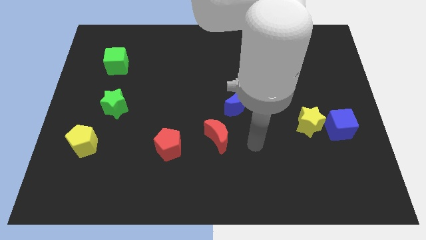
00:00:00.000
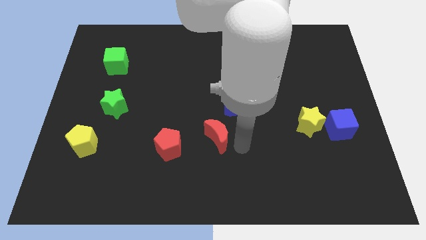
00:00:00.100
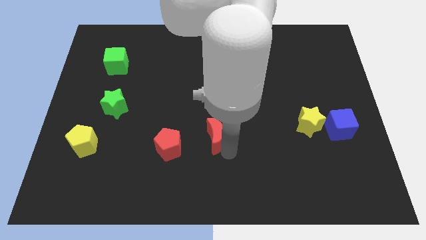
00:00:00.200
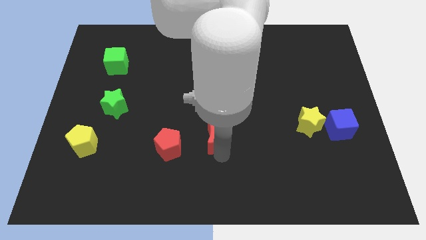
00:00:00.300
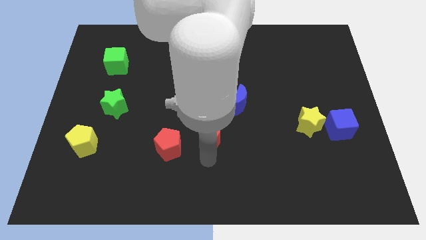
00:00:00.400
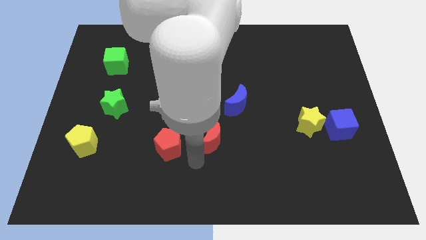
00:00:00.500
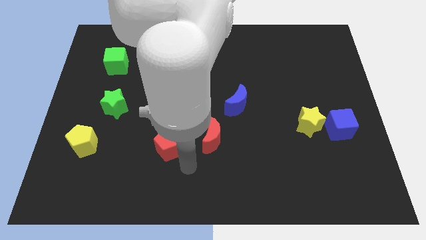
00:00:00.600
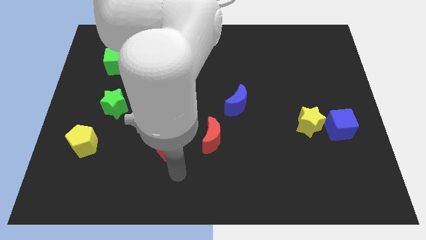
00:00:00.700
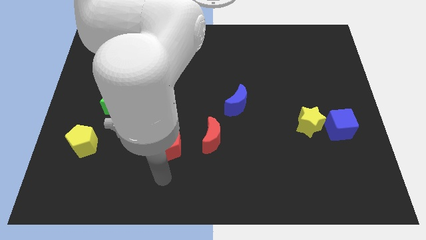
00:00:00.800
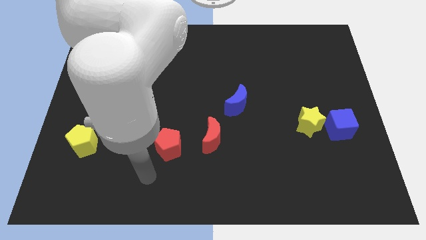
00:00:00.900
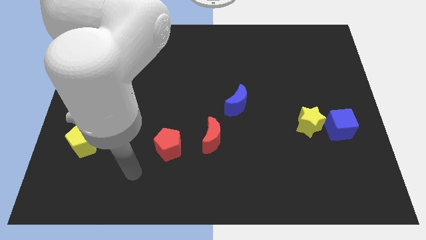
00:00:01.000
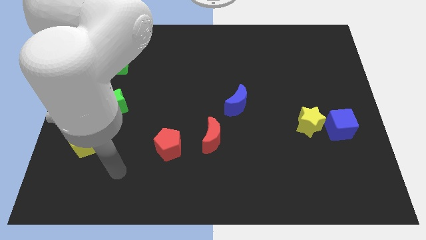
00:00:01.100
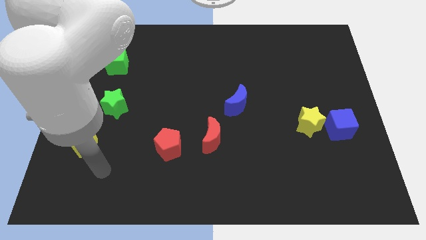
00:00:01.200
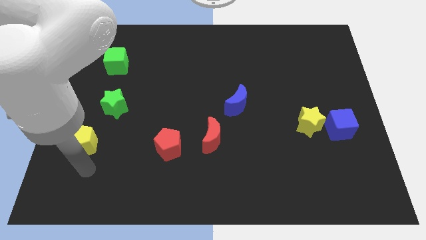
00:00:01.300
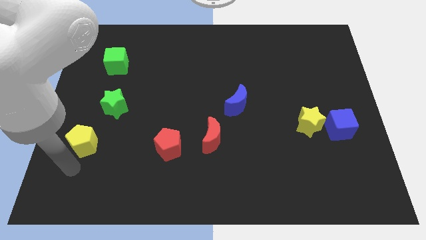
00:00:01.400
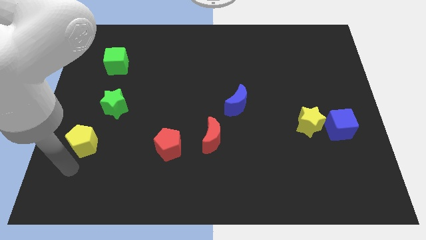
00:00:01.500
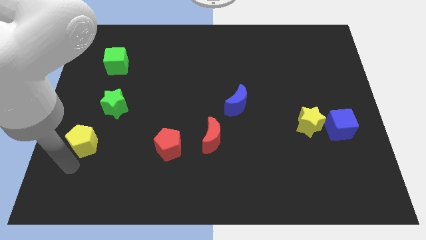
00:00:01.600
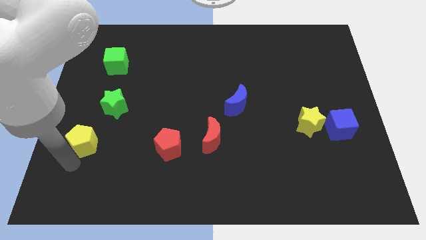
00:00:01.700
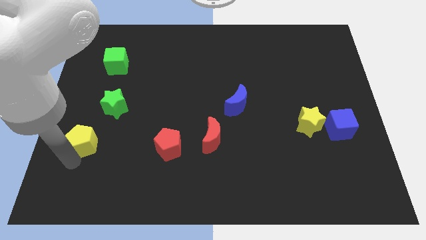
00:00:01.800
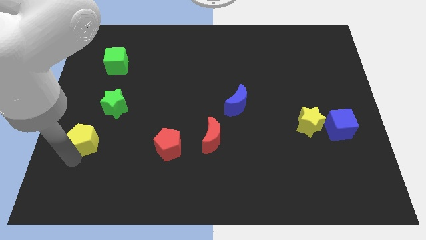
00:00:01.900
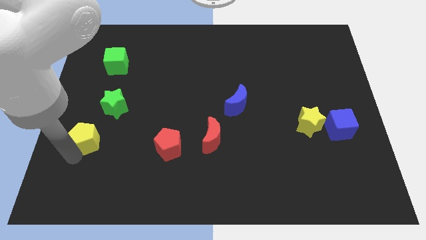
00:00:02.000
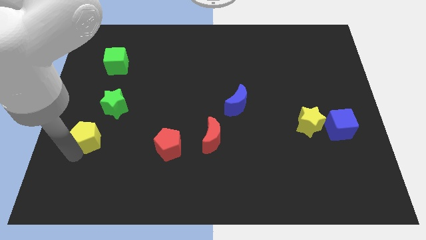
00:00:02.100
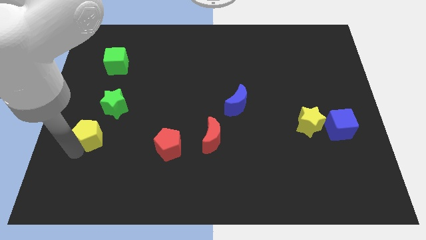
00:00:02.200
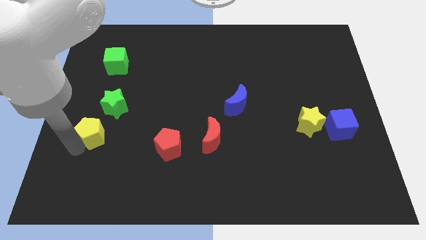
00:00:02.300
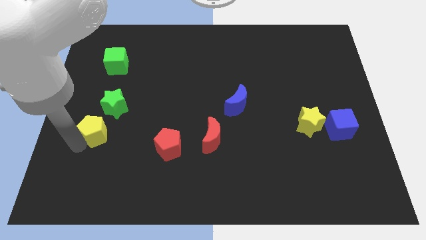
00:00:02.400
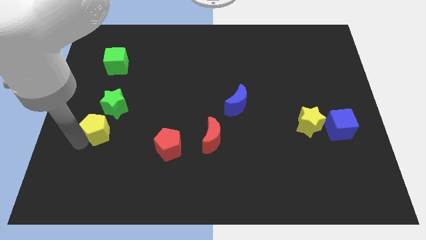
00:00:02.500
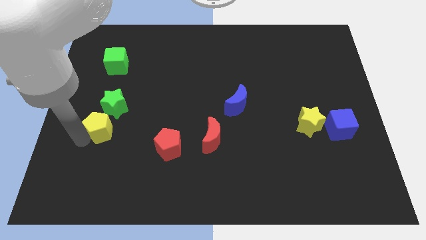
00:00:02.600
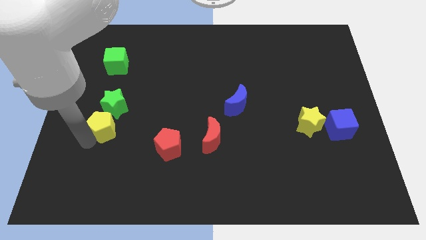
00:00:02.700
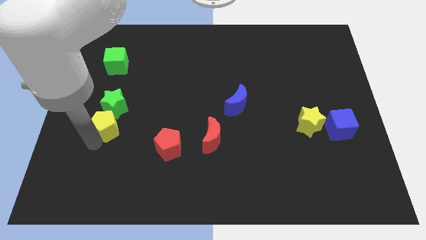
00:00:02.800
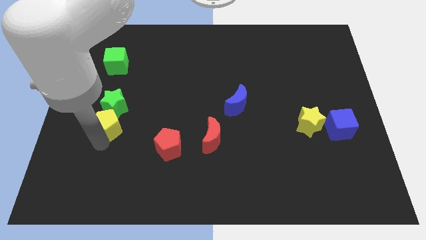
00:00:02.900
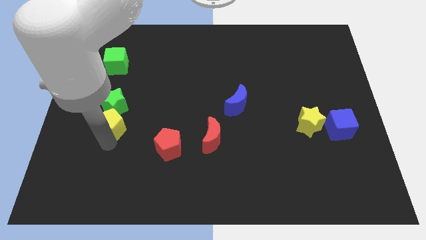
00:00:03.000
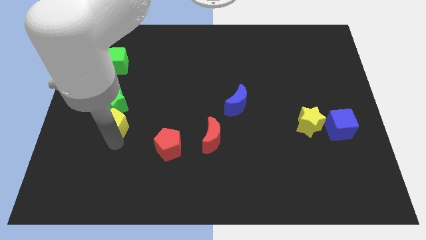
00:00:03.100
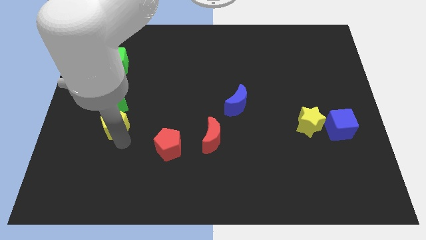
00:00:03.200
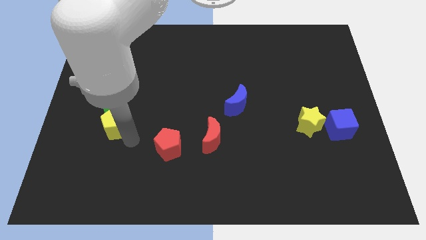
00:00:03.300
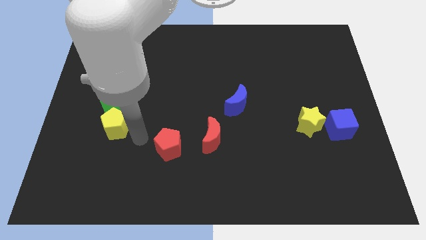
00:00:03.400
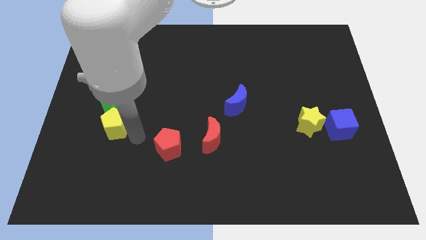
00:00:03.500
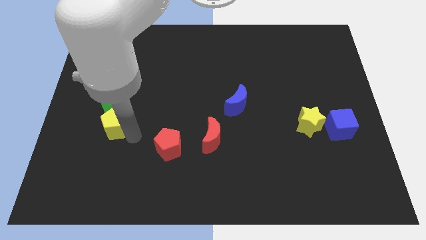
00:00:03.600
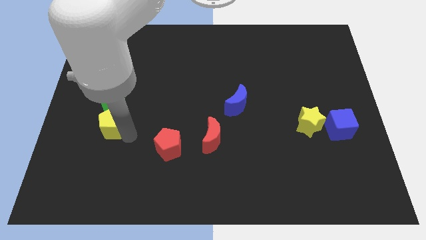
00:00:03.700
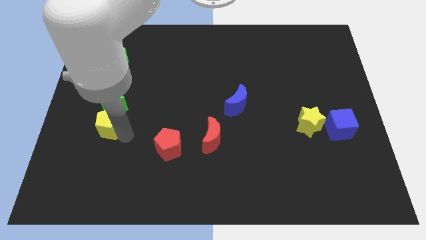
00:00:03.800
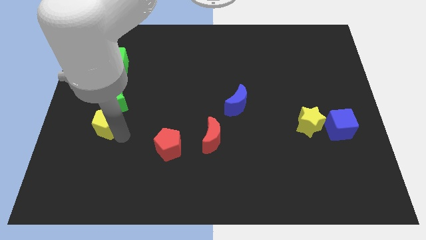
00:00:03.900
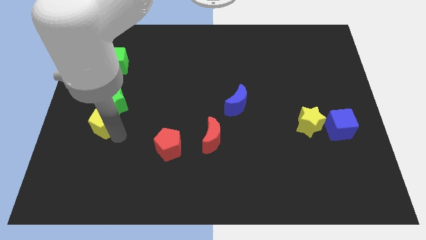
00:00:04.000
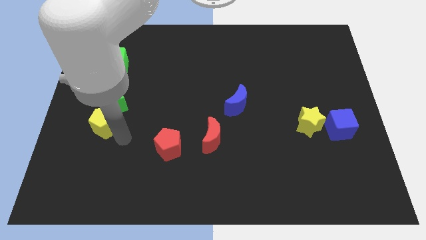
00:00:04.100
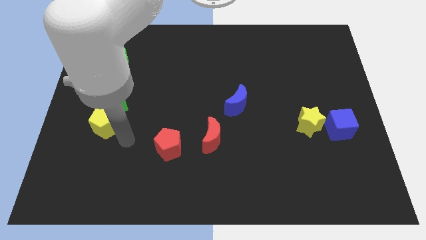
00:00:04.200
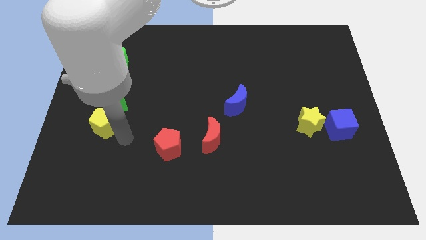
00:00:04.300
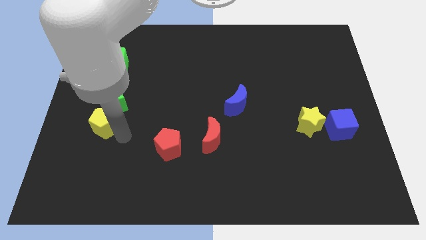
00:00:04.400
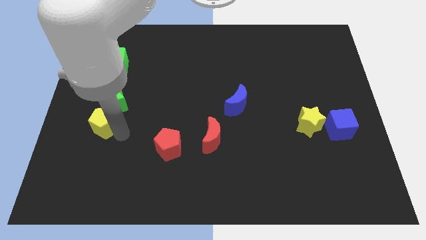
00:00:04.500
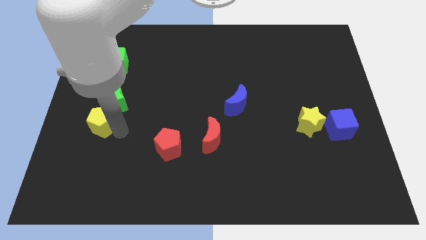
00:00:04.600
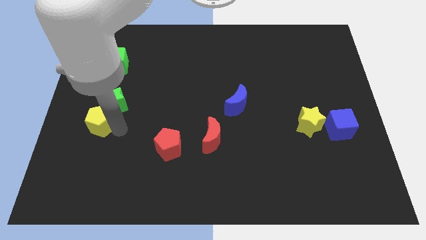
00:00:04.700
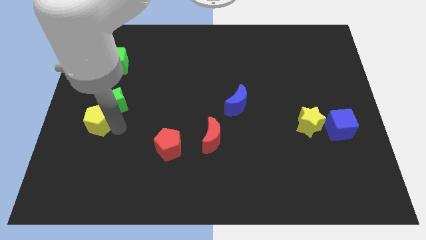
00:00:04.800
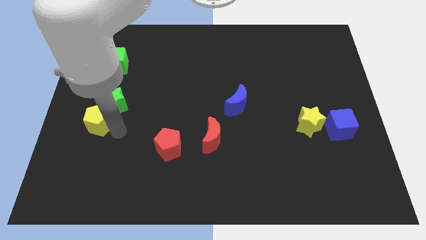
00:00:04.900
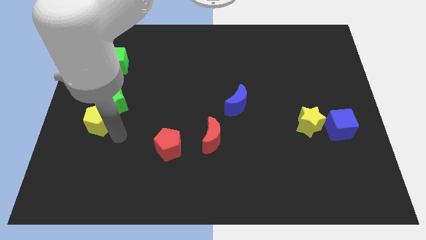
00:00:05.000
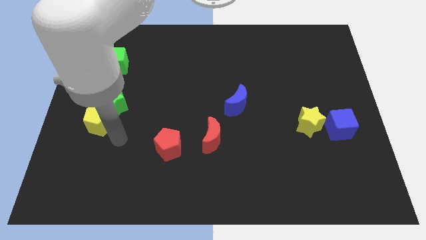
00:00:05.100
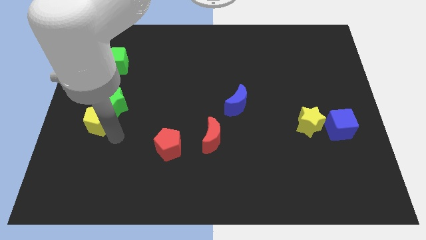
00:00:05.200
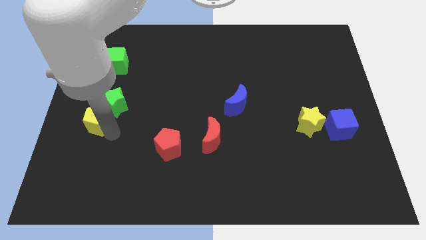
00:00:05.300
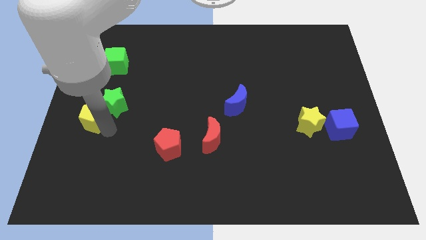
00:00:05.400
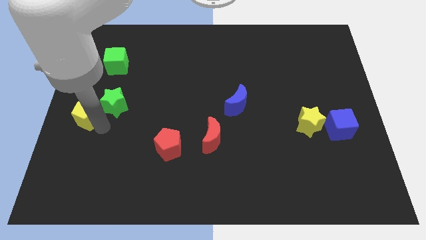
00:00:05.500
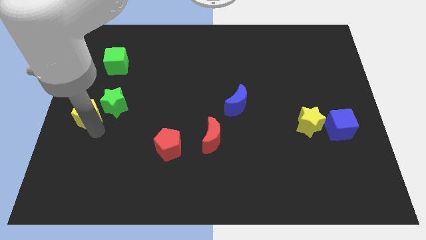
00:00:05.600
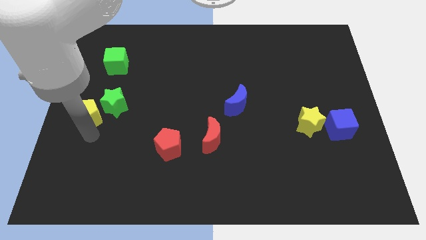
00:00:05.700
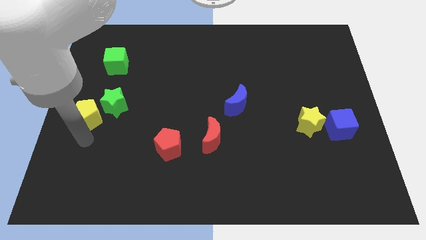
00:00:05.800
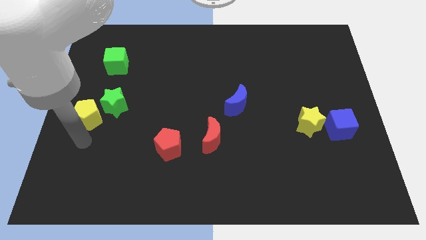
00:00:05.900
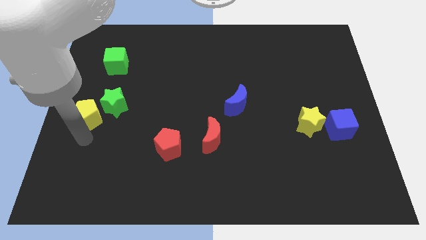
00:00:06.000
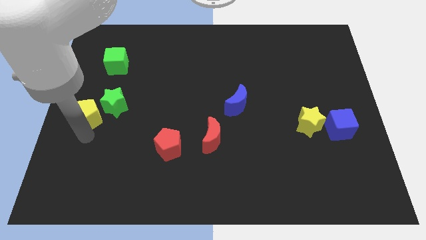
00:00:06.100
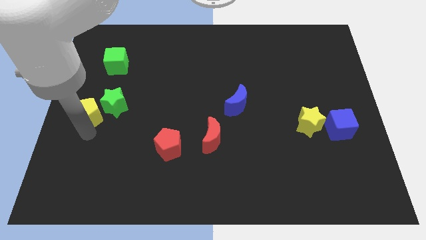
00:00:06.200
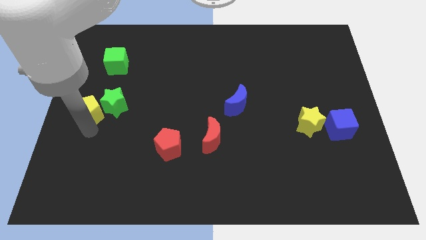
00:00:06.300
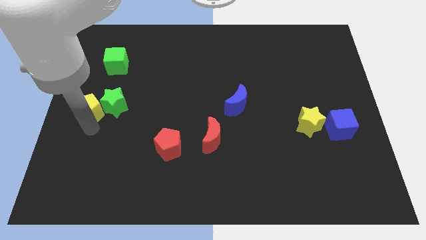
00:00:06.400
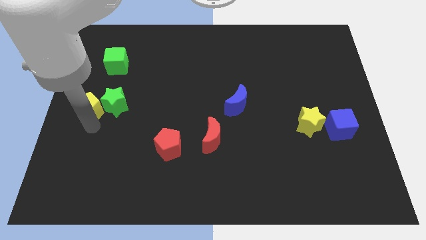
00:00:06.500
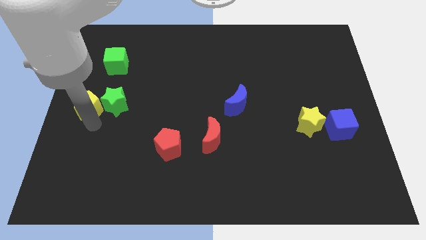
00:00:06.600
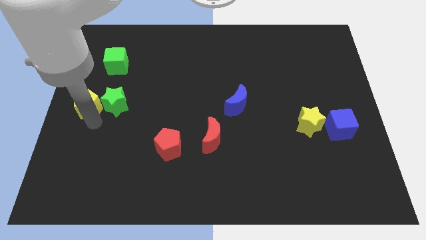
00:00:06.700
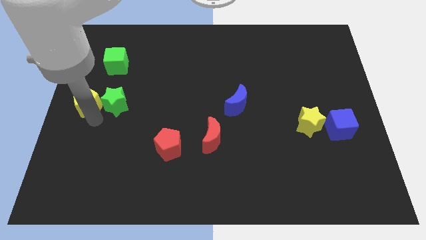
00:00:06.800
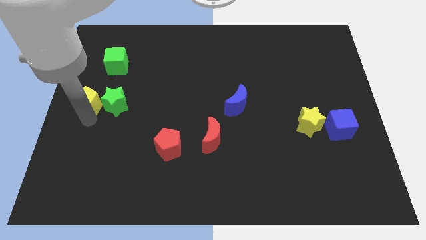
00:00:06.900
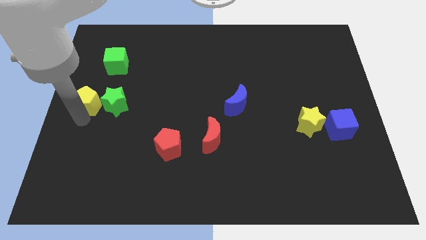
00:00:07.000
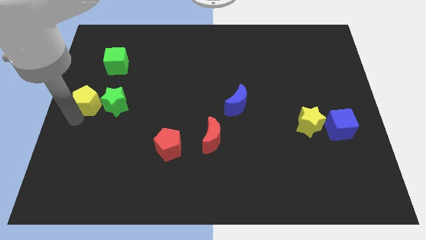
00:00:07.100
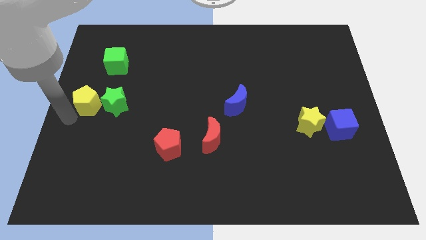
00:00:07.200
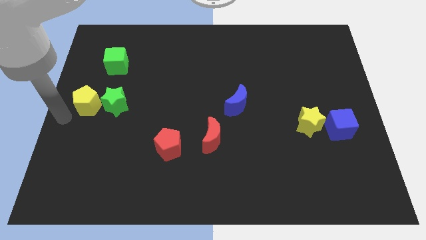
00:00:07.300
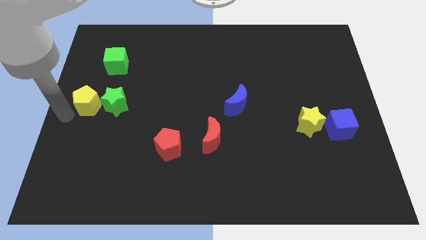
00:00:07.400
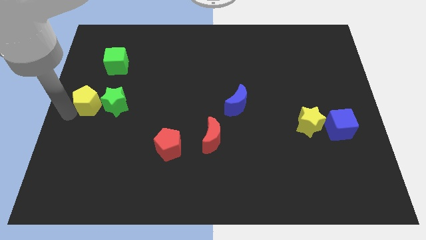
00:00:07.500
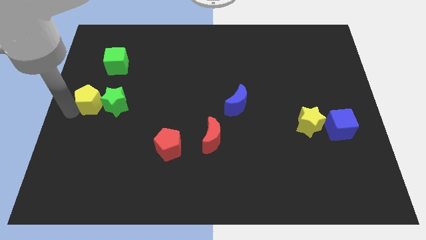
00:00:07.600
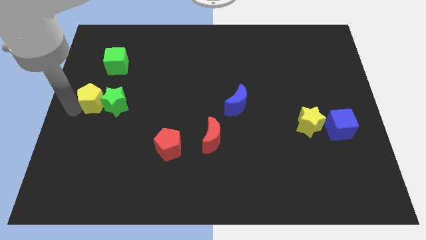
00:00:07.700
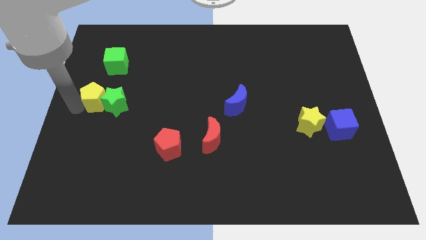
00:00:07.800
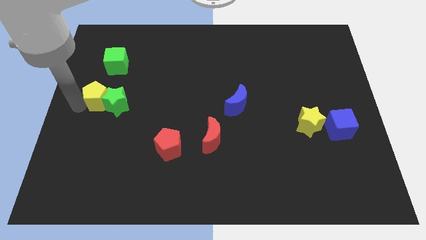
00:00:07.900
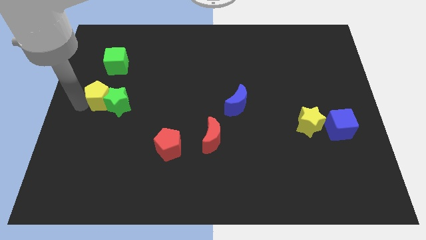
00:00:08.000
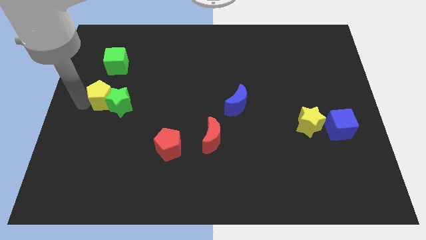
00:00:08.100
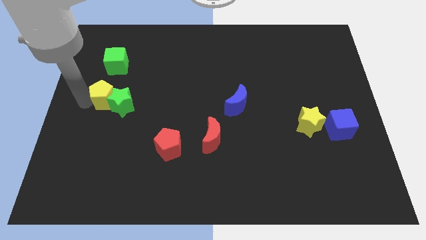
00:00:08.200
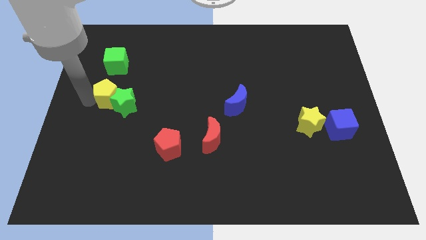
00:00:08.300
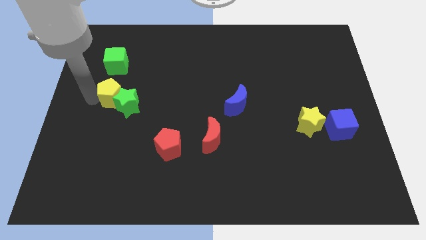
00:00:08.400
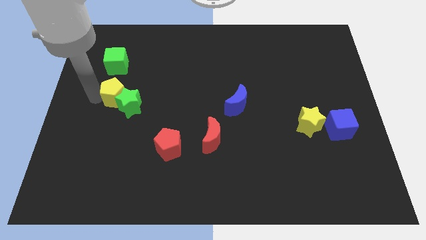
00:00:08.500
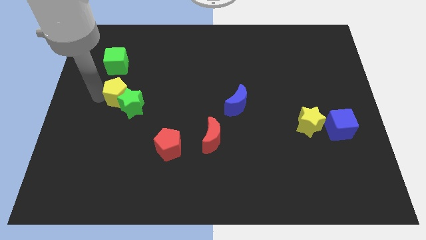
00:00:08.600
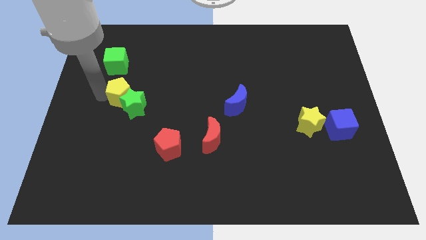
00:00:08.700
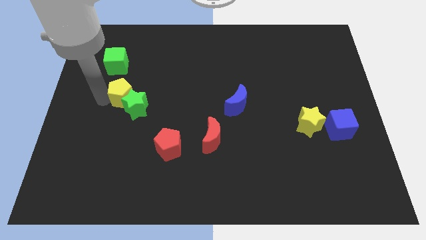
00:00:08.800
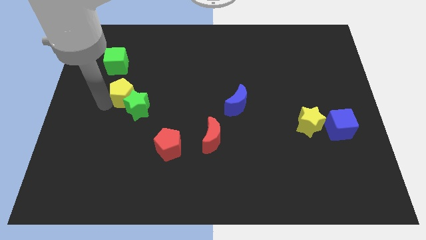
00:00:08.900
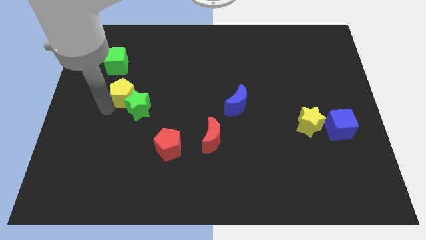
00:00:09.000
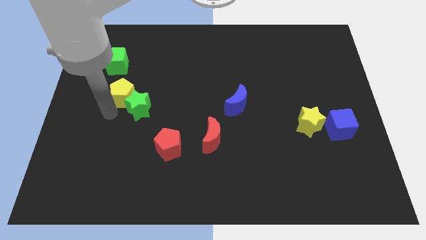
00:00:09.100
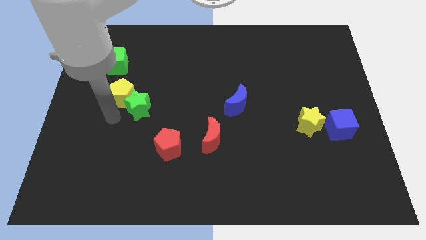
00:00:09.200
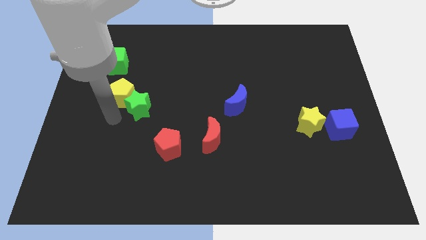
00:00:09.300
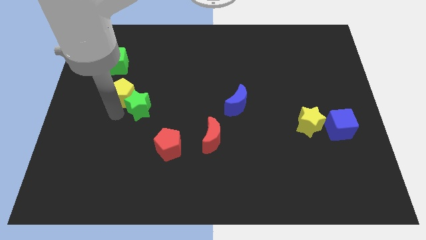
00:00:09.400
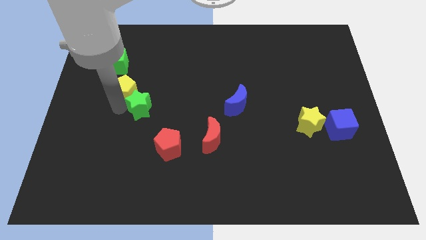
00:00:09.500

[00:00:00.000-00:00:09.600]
move the yellow pentagon diagonally down and to the right of the green cube
